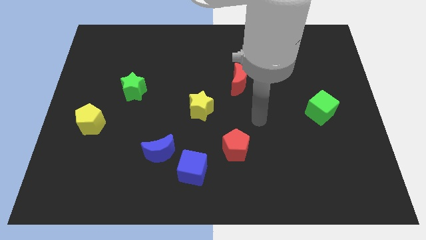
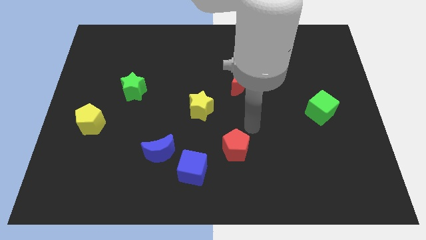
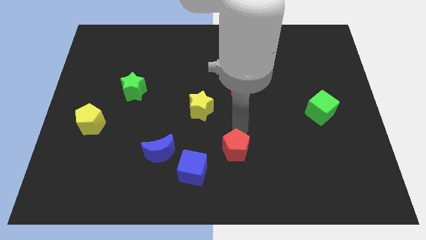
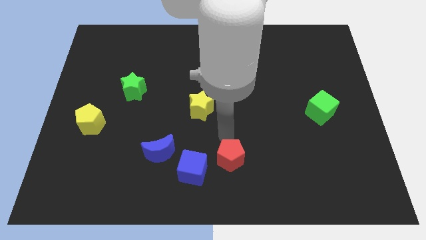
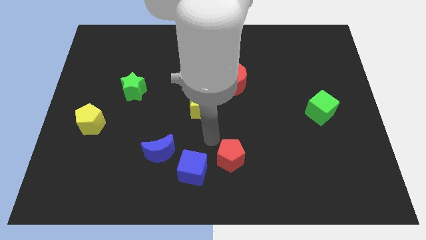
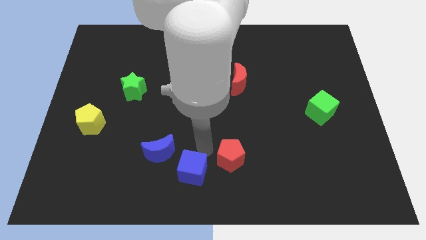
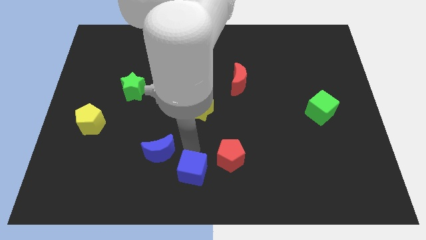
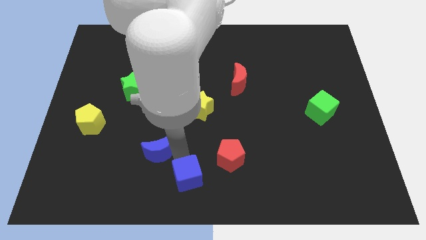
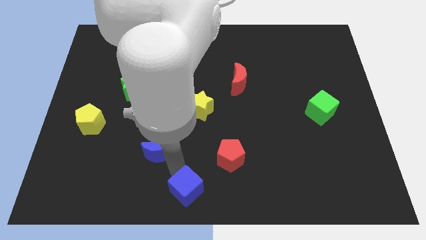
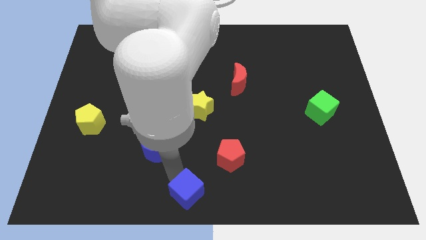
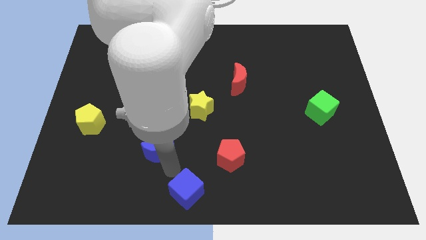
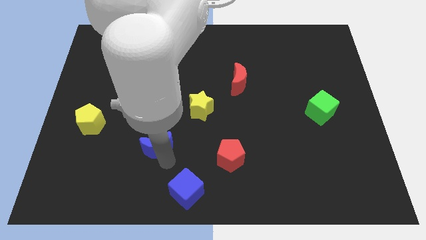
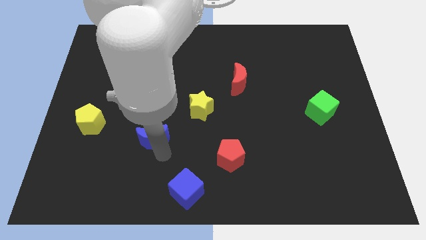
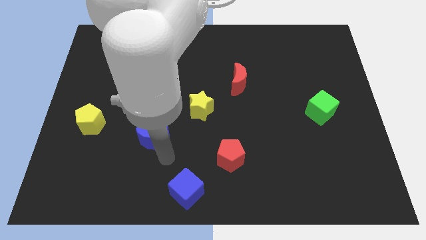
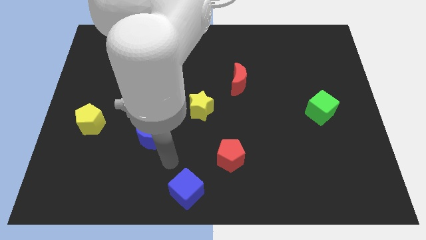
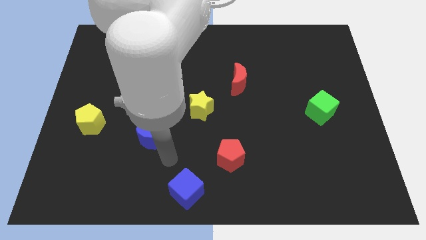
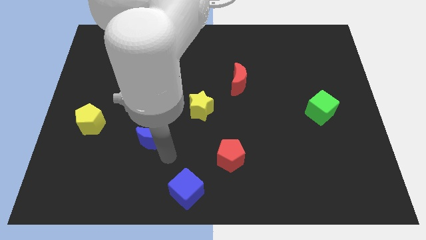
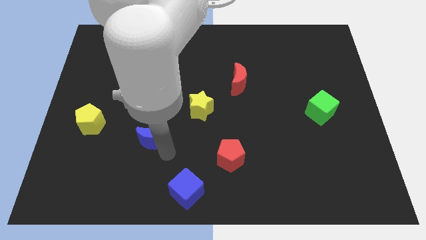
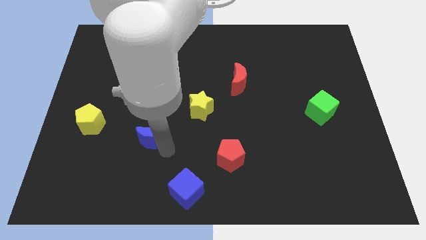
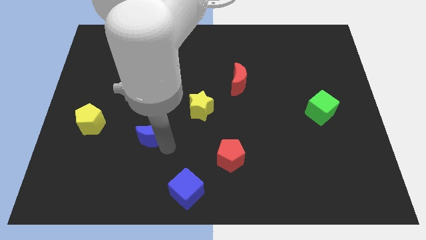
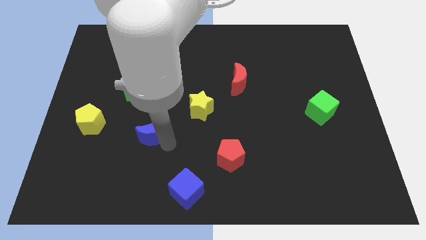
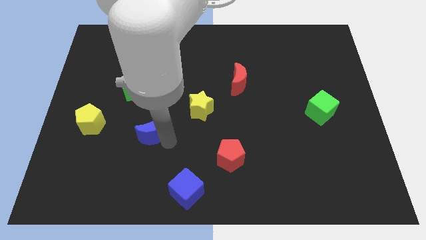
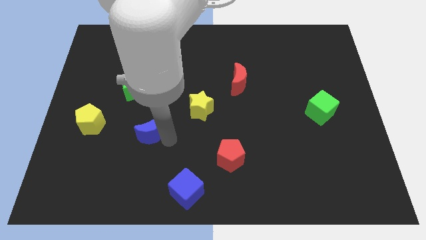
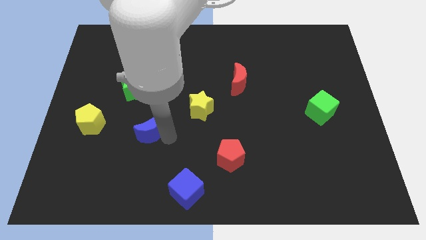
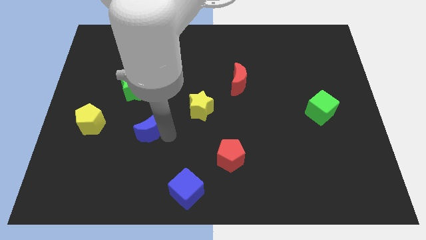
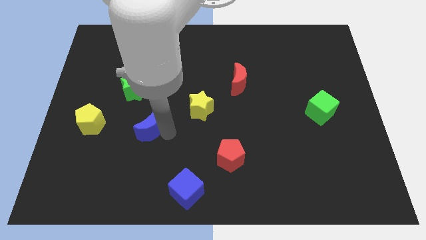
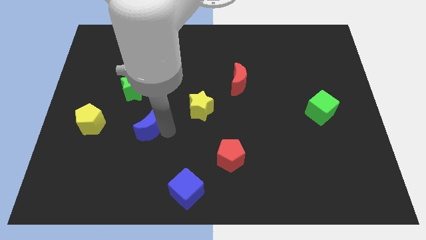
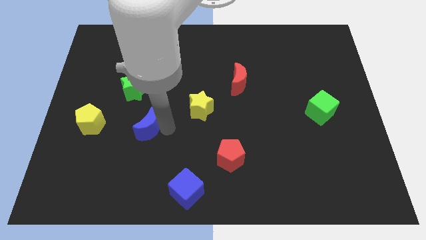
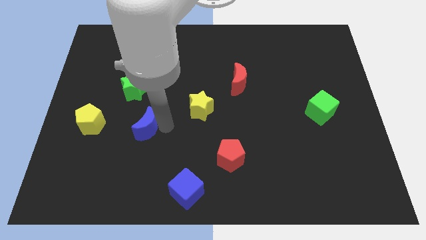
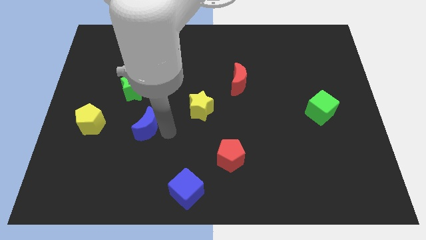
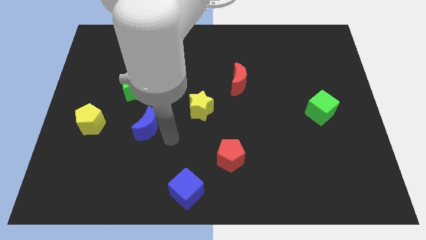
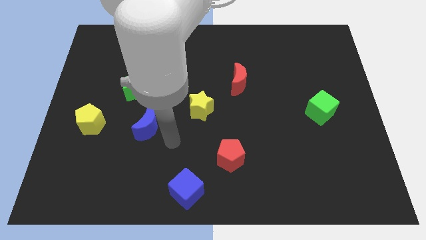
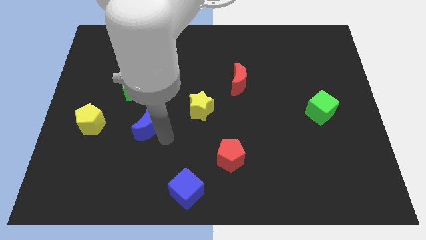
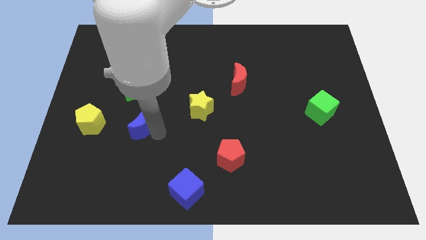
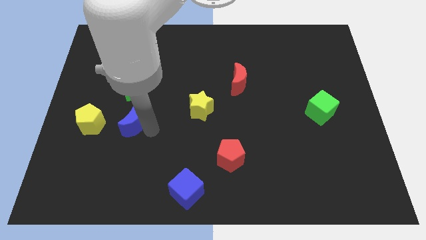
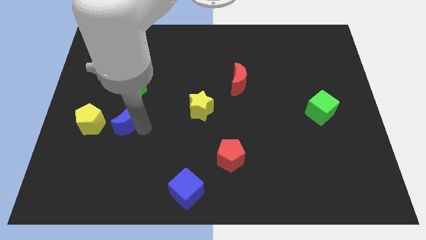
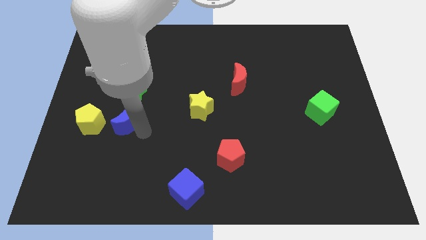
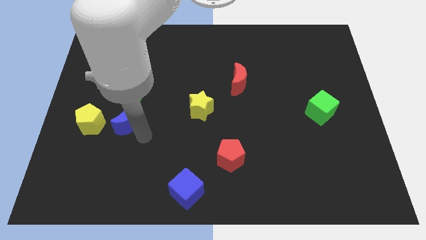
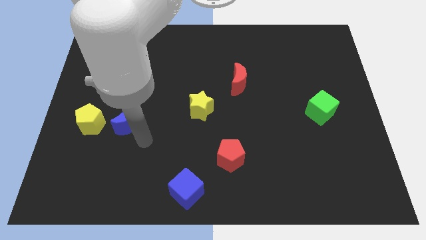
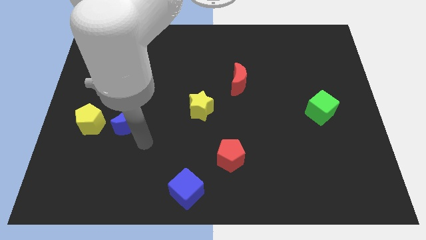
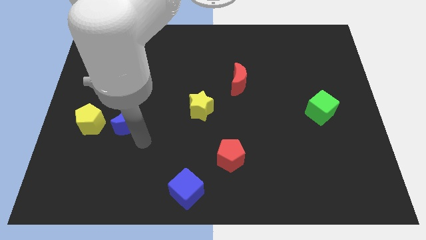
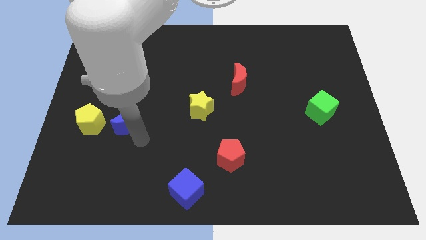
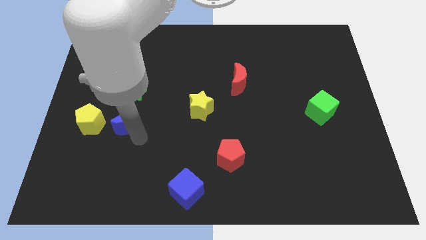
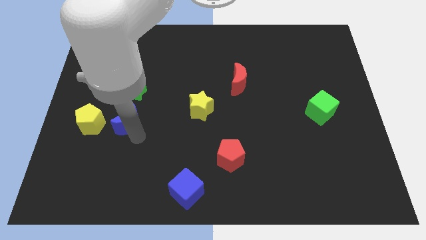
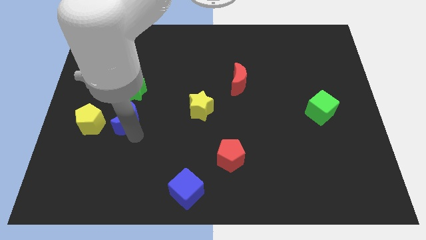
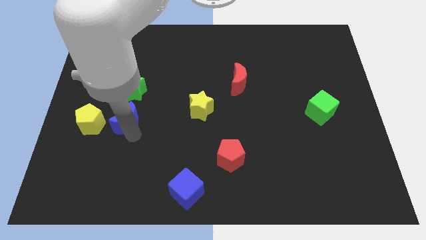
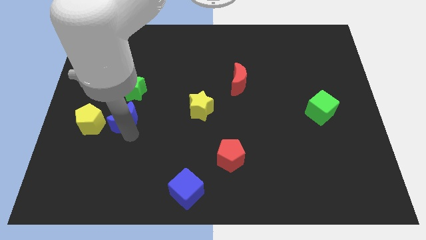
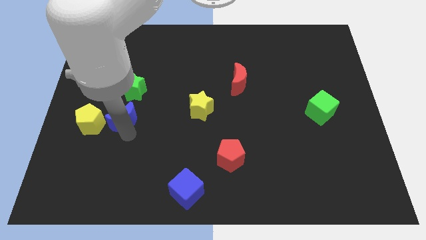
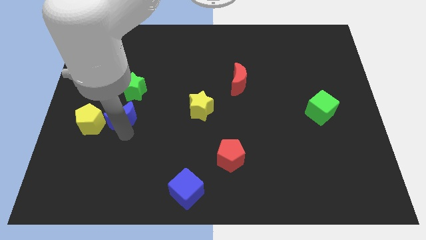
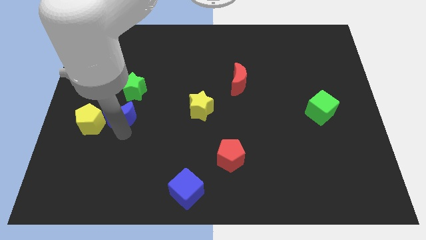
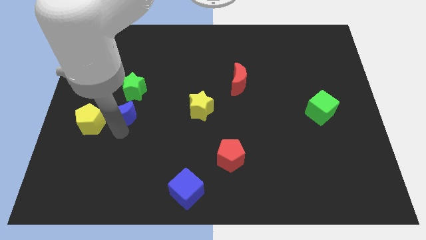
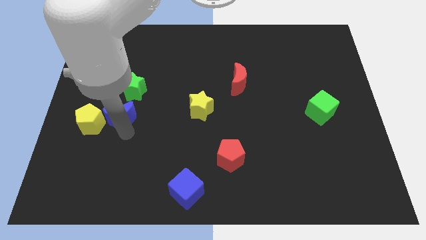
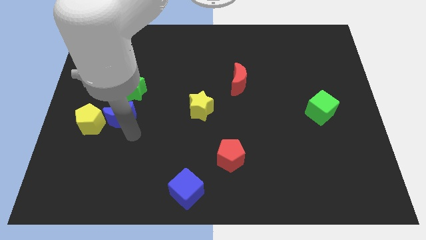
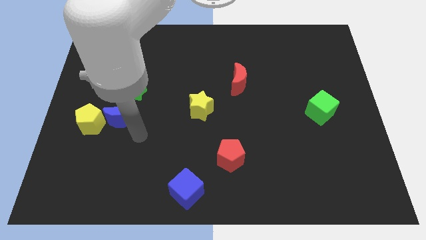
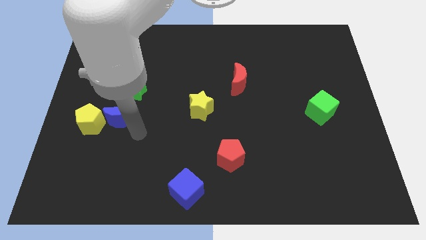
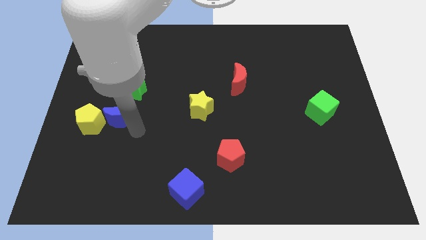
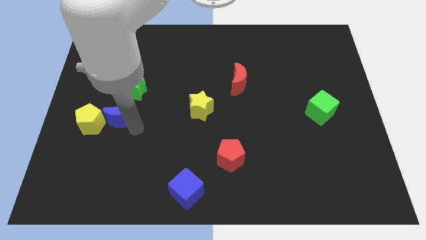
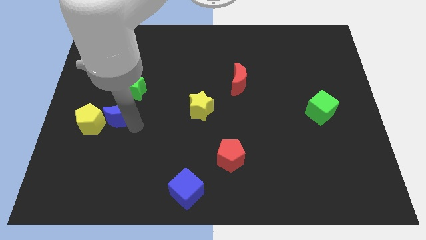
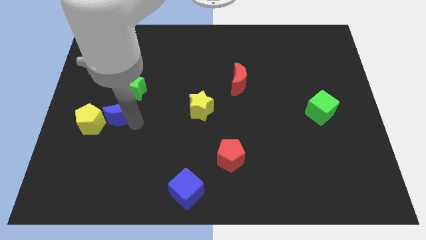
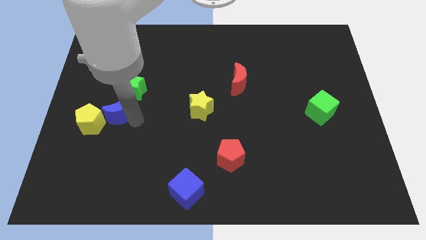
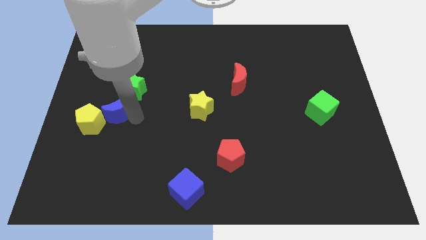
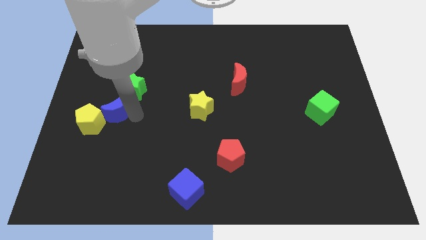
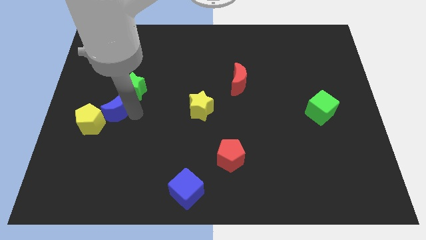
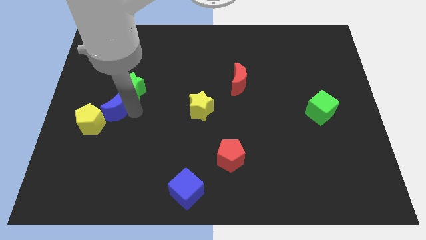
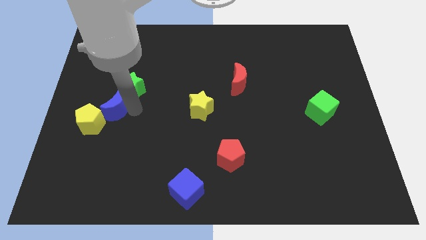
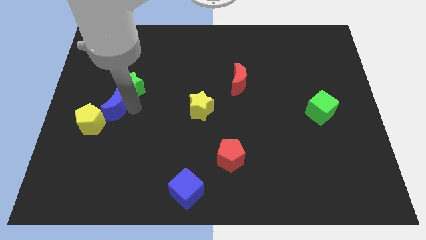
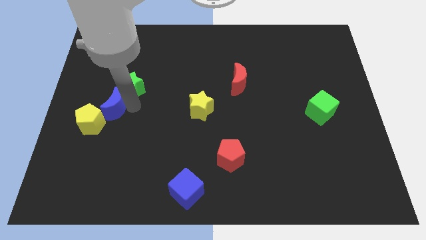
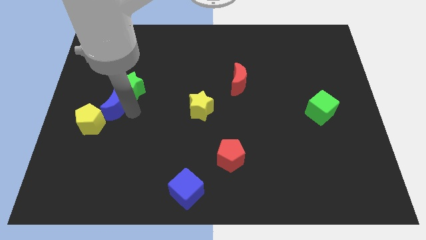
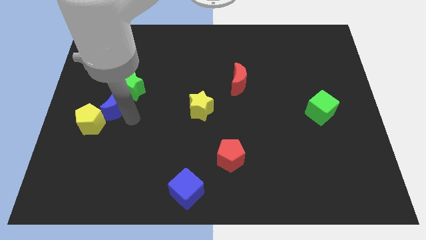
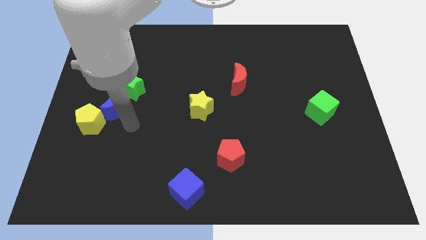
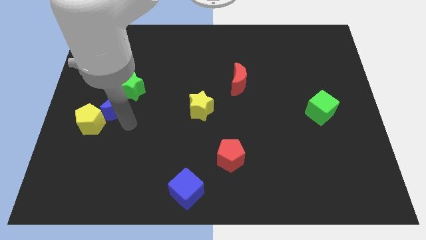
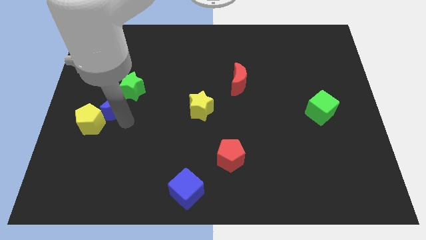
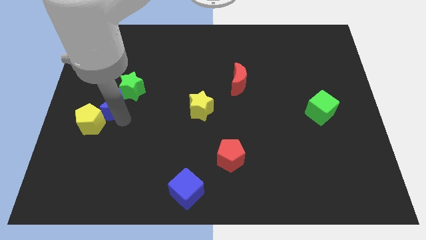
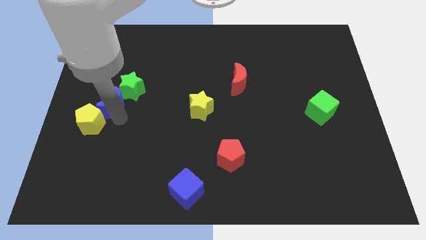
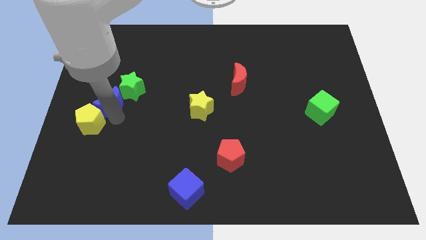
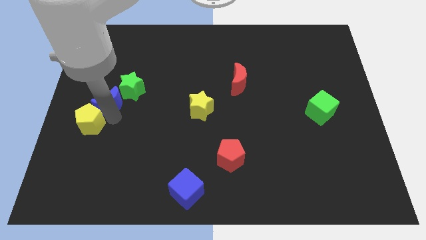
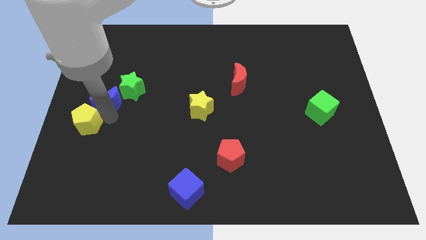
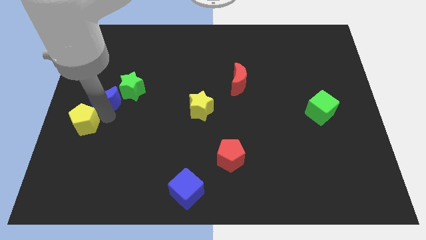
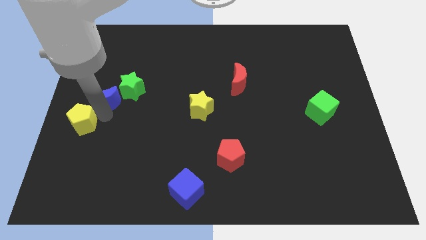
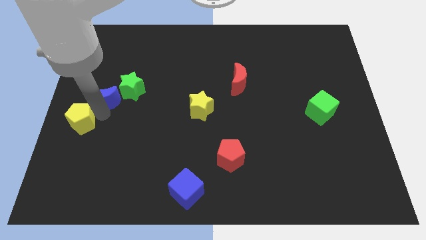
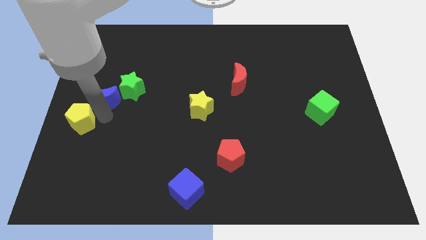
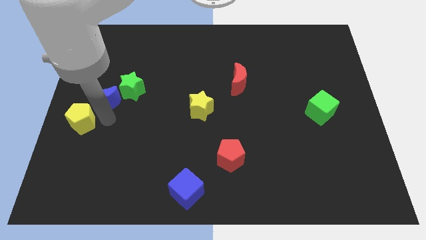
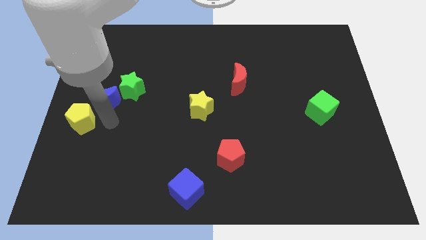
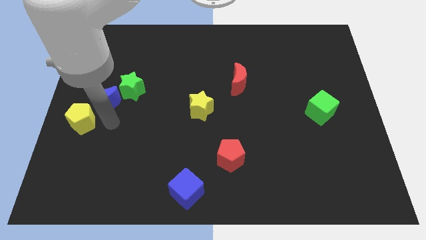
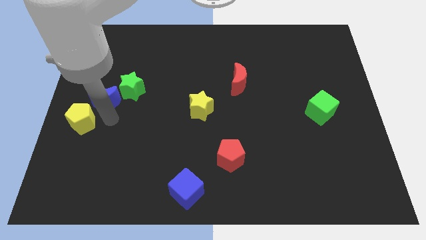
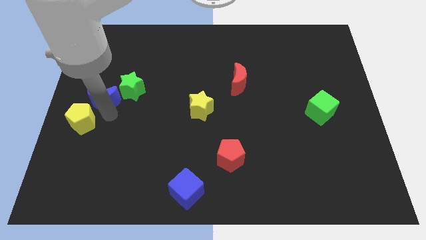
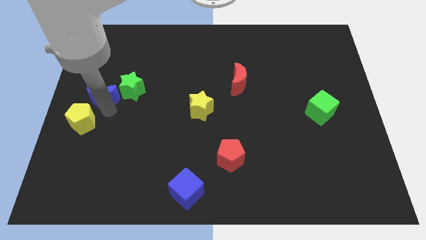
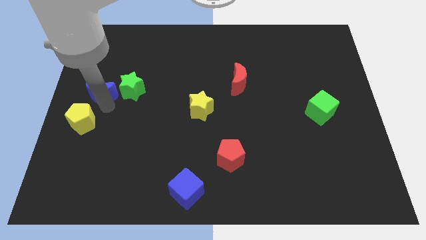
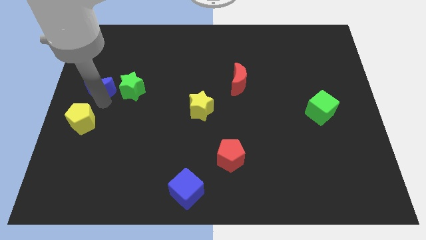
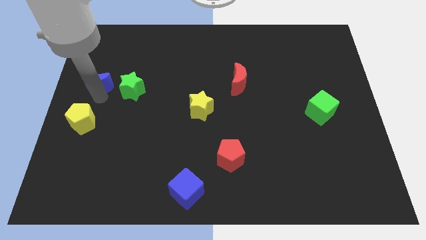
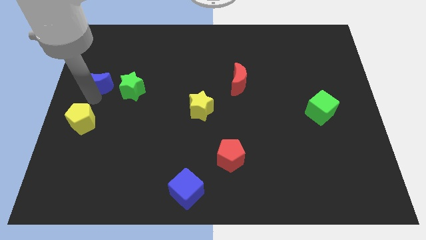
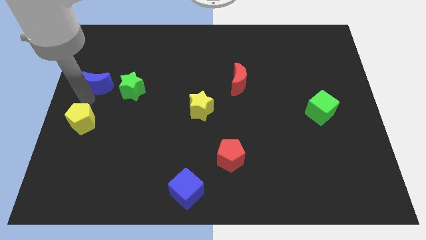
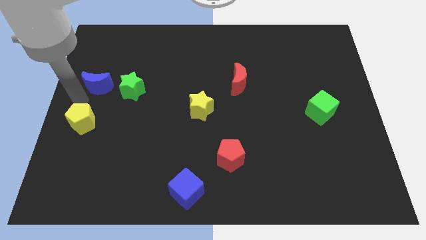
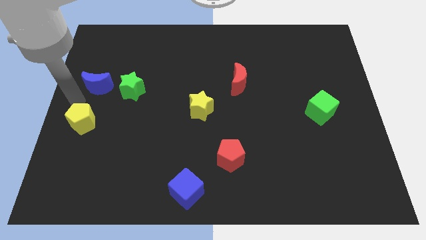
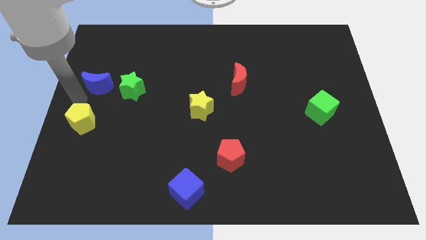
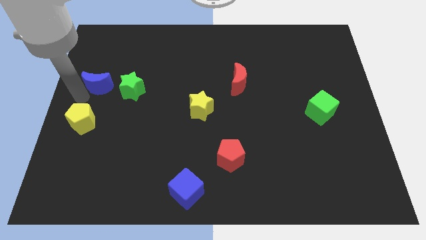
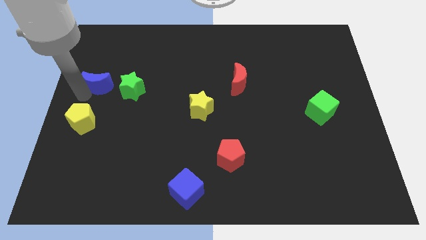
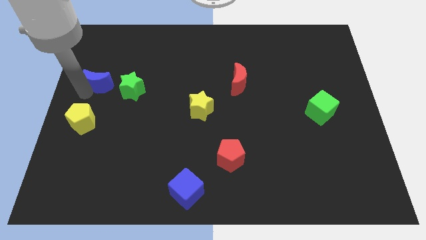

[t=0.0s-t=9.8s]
move the blue moon to the top left of the green star
